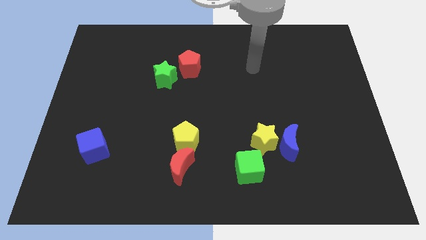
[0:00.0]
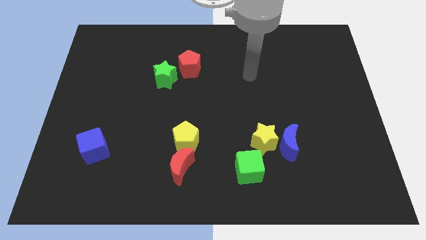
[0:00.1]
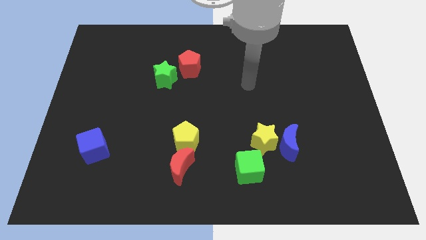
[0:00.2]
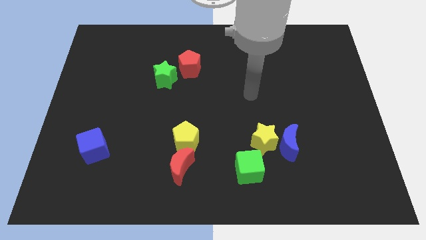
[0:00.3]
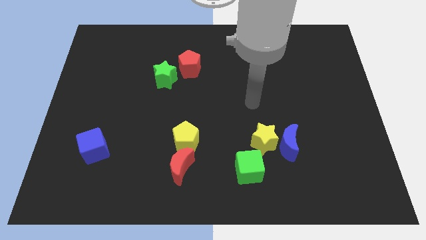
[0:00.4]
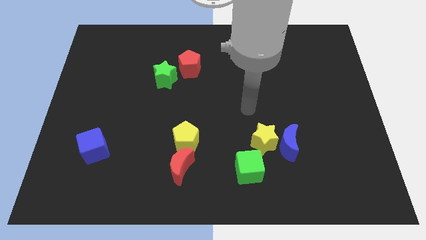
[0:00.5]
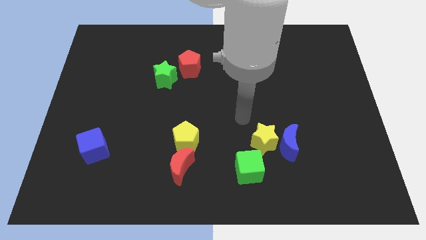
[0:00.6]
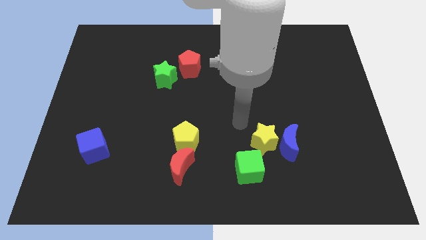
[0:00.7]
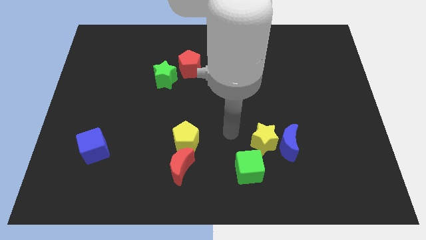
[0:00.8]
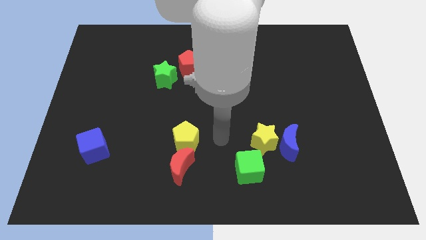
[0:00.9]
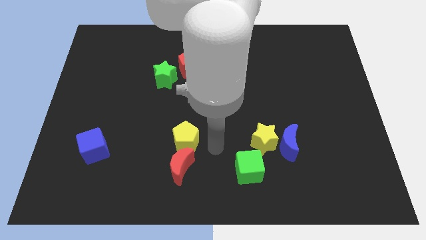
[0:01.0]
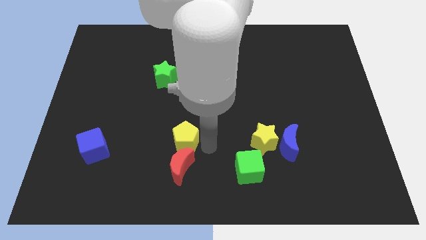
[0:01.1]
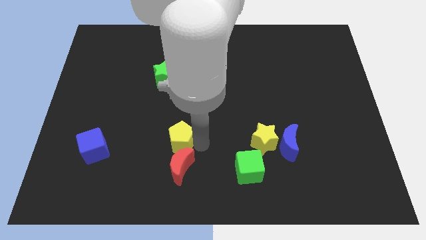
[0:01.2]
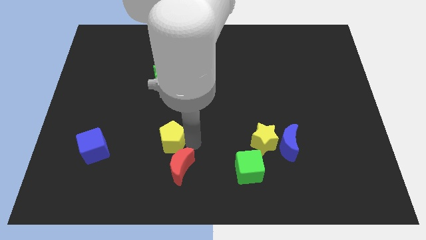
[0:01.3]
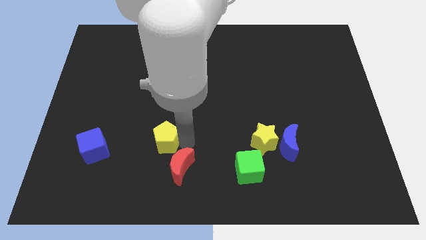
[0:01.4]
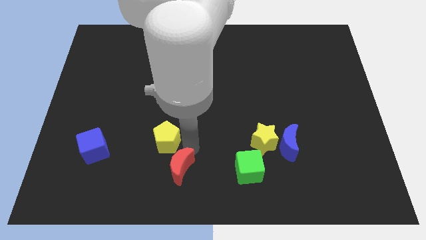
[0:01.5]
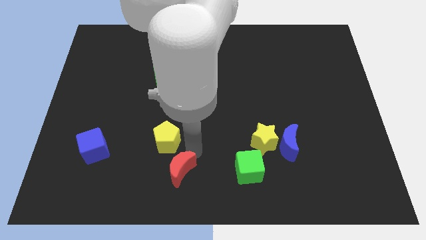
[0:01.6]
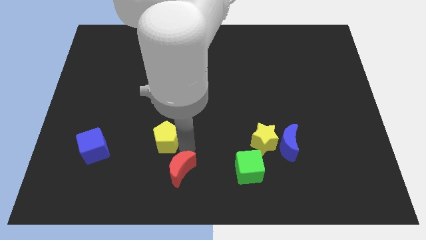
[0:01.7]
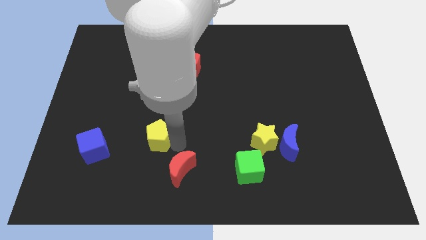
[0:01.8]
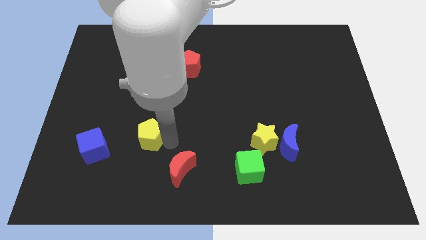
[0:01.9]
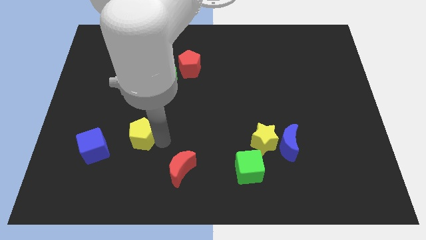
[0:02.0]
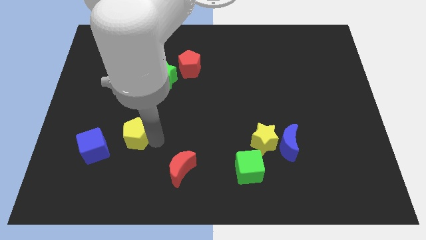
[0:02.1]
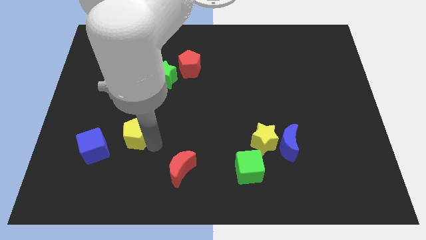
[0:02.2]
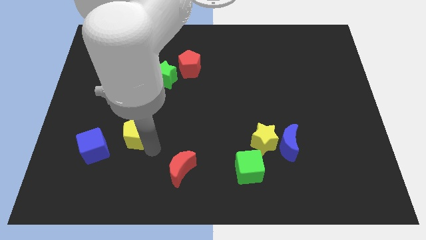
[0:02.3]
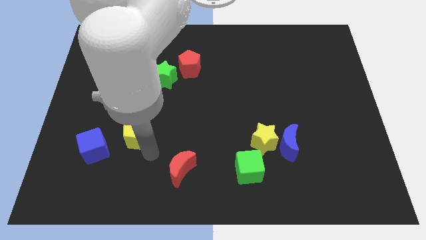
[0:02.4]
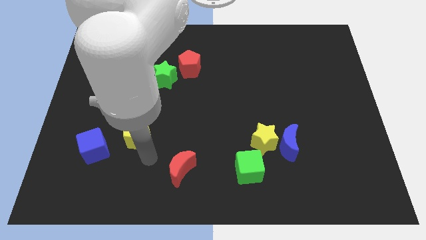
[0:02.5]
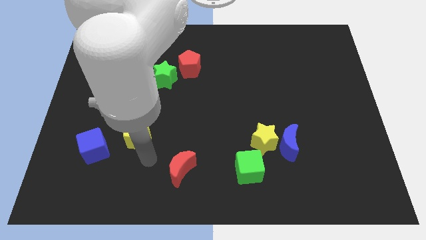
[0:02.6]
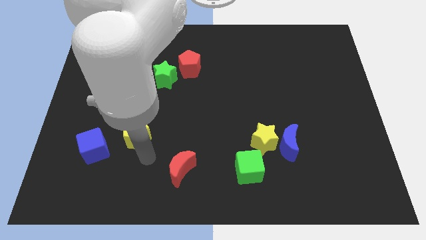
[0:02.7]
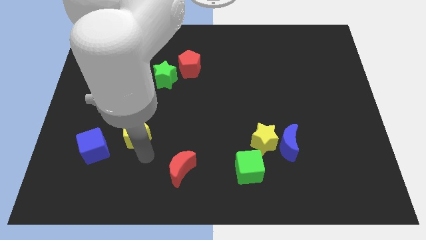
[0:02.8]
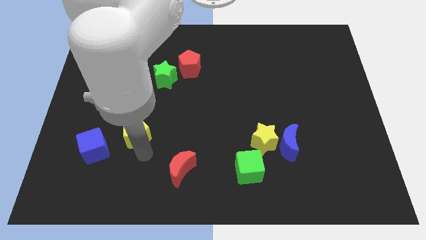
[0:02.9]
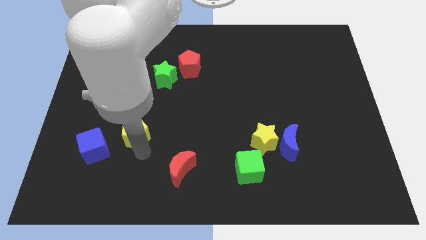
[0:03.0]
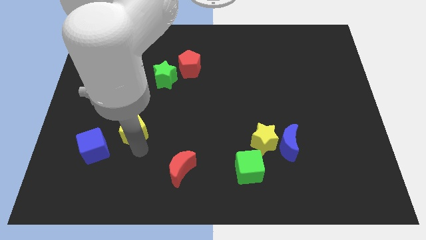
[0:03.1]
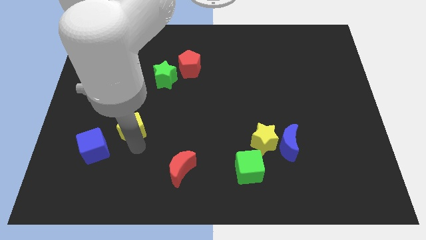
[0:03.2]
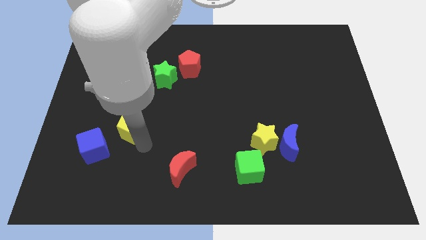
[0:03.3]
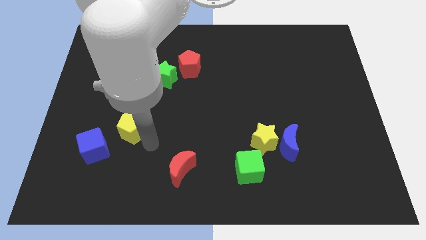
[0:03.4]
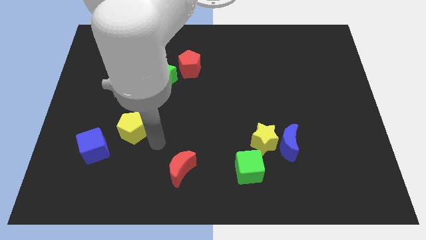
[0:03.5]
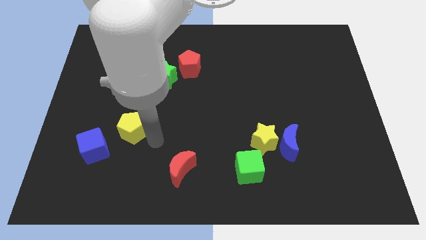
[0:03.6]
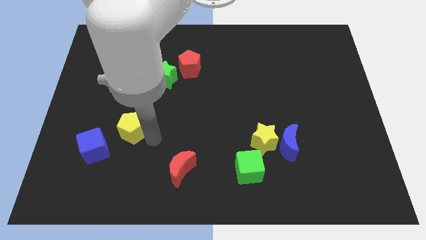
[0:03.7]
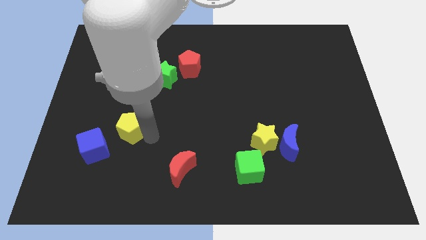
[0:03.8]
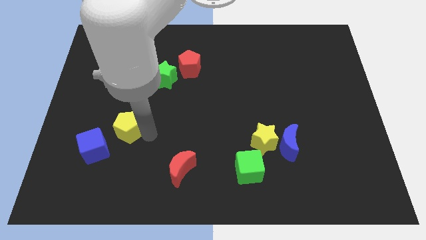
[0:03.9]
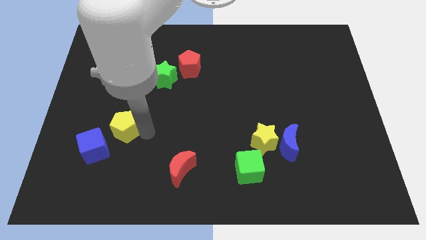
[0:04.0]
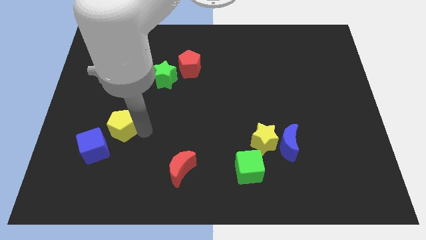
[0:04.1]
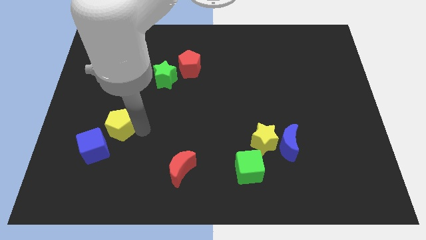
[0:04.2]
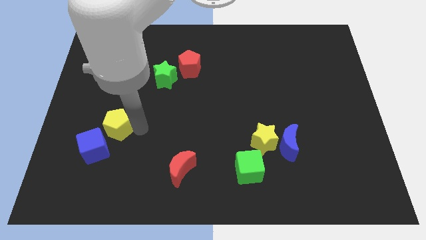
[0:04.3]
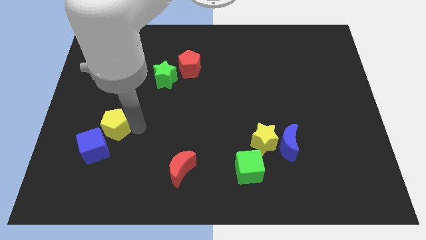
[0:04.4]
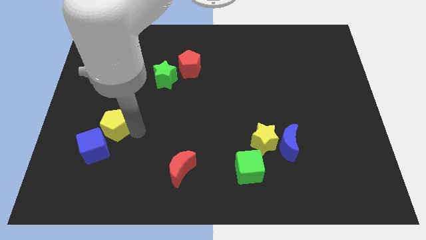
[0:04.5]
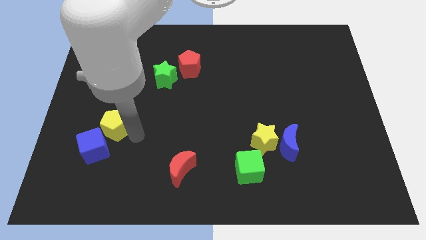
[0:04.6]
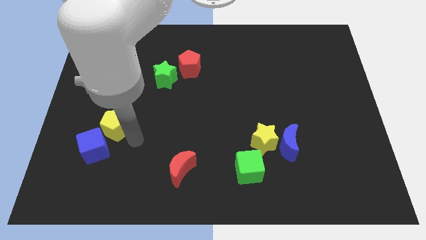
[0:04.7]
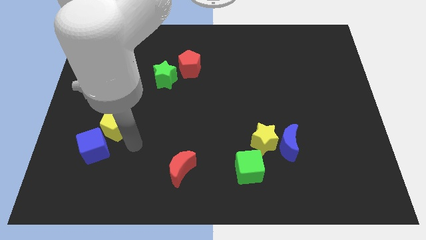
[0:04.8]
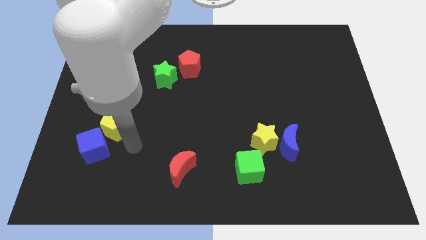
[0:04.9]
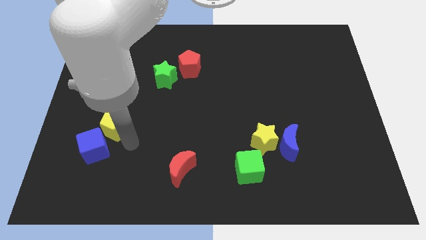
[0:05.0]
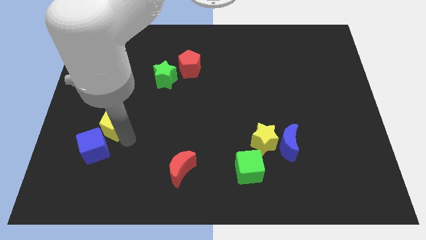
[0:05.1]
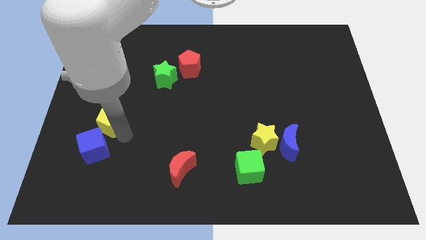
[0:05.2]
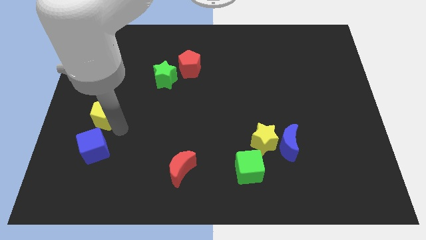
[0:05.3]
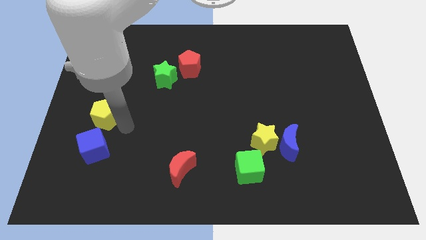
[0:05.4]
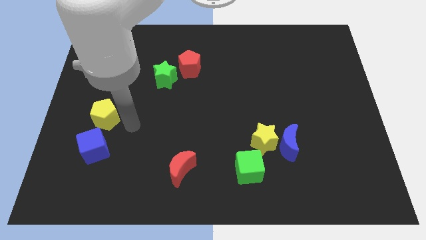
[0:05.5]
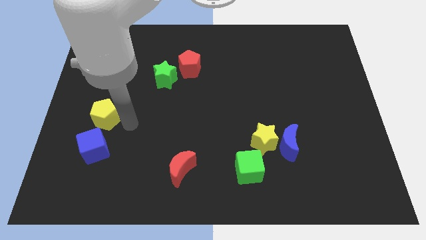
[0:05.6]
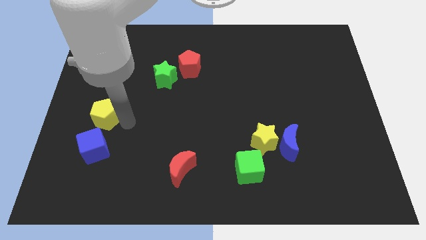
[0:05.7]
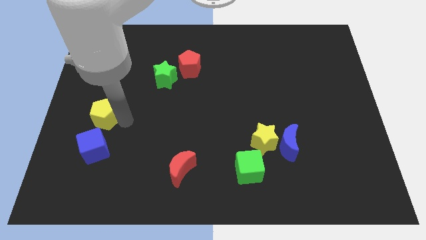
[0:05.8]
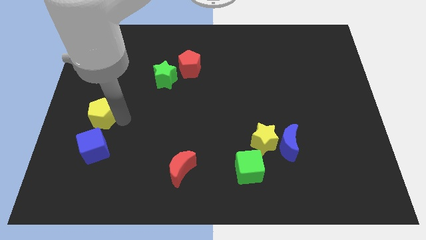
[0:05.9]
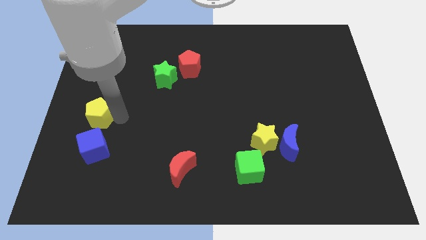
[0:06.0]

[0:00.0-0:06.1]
push the yellow pentagon to the left side of the board

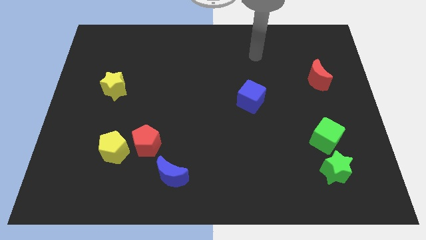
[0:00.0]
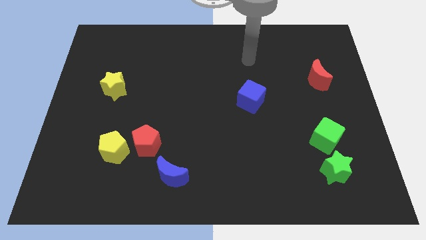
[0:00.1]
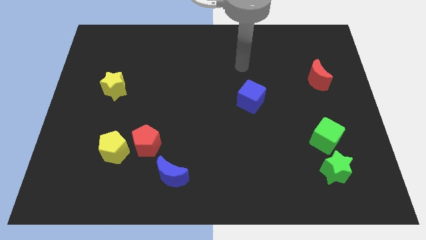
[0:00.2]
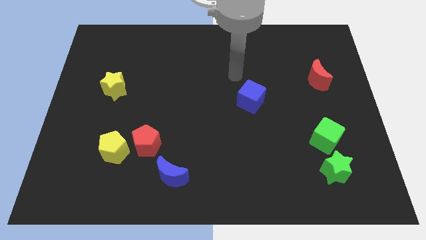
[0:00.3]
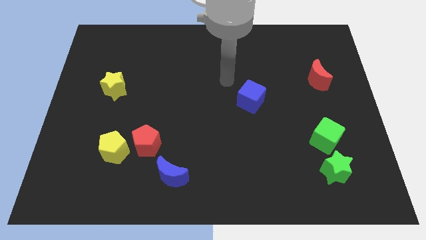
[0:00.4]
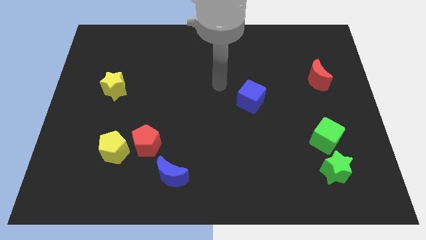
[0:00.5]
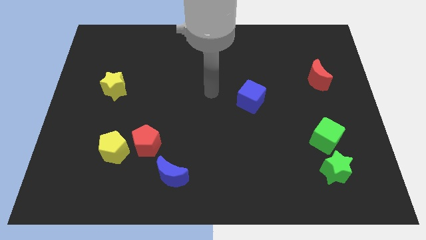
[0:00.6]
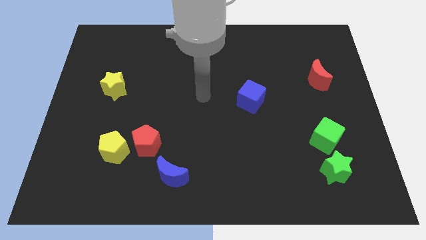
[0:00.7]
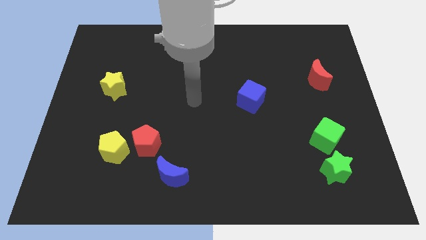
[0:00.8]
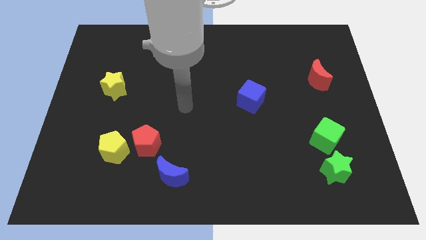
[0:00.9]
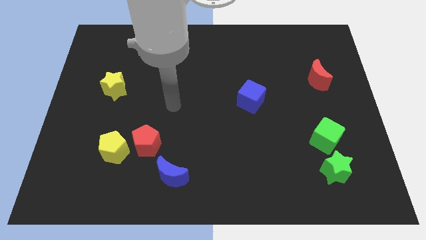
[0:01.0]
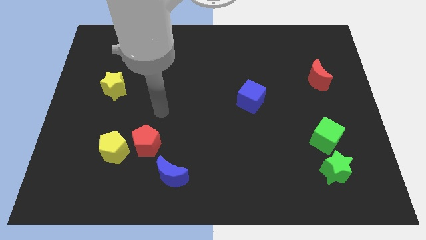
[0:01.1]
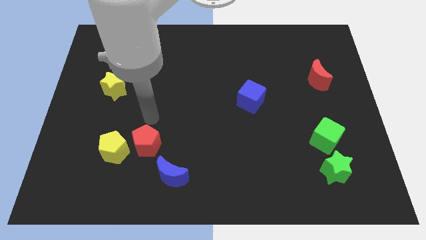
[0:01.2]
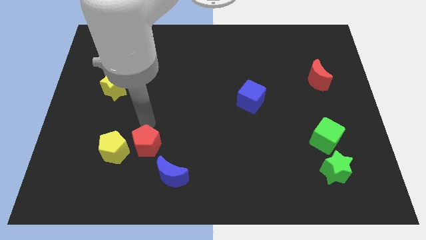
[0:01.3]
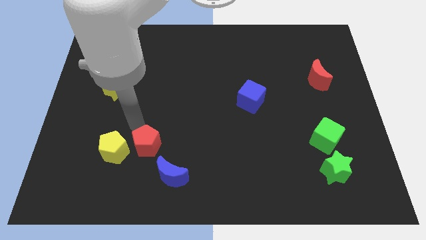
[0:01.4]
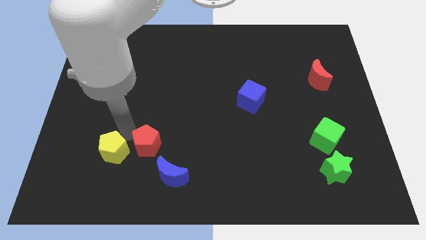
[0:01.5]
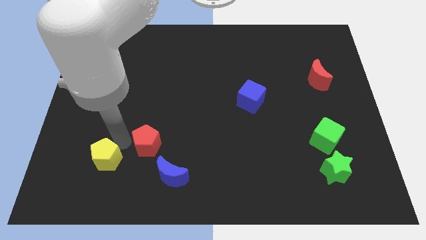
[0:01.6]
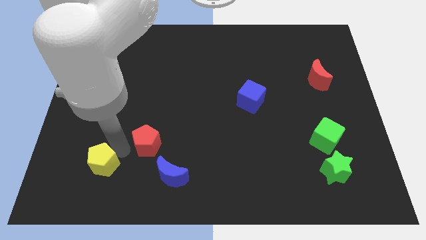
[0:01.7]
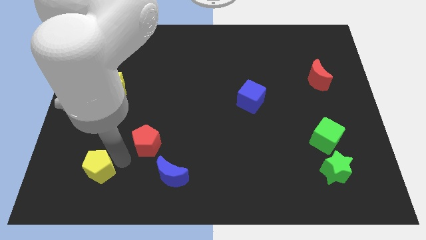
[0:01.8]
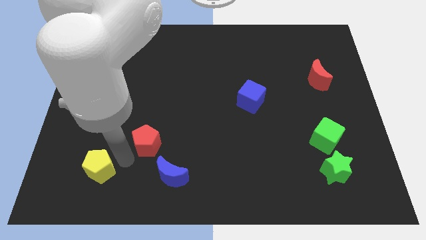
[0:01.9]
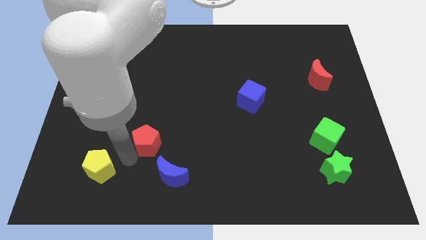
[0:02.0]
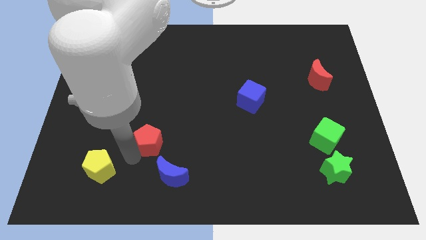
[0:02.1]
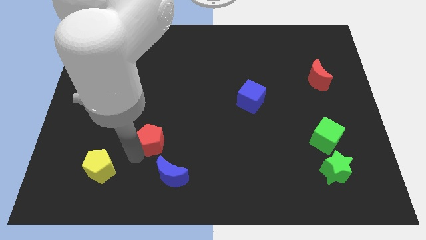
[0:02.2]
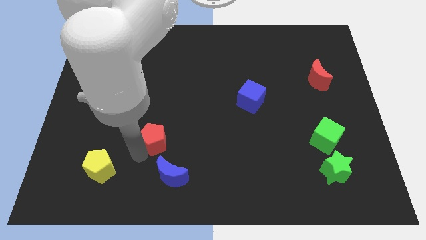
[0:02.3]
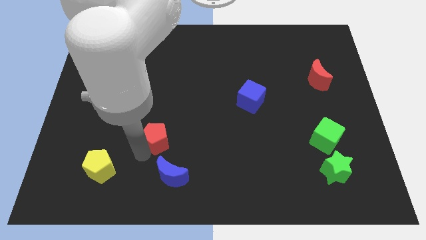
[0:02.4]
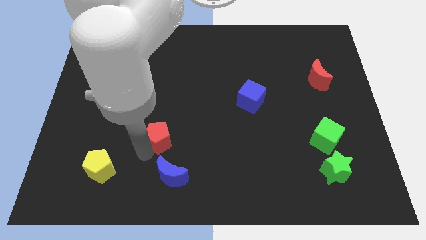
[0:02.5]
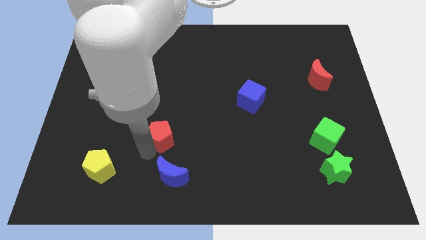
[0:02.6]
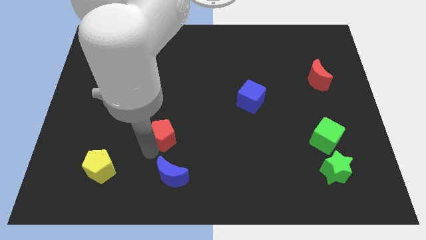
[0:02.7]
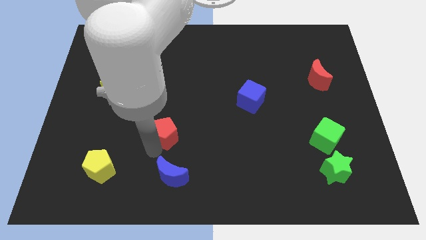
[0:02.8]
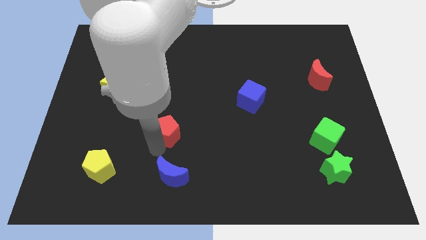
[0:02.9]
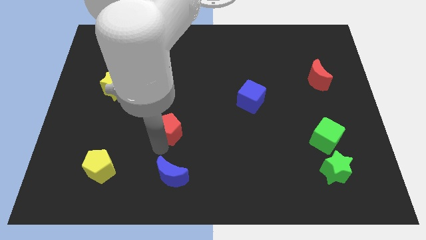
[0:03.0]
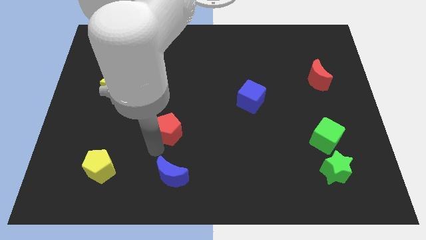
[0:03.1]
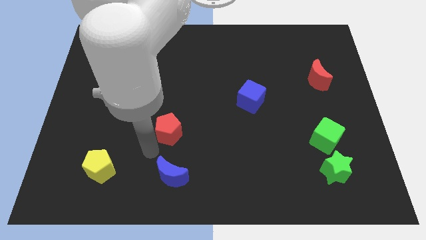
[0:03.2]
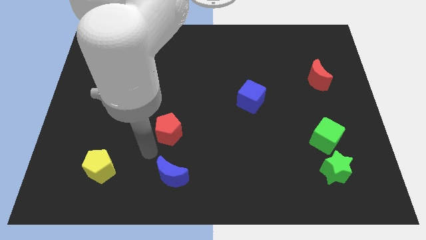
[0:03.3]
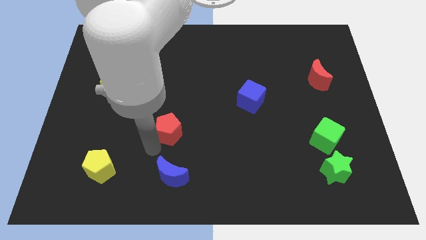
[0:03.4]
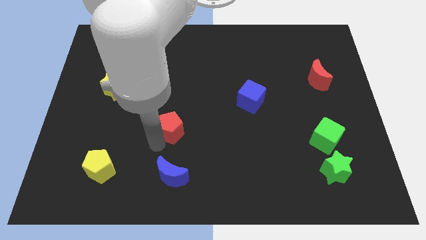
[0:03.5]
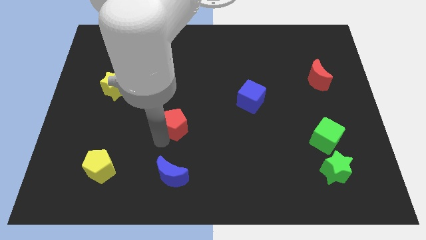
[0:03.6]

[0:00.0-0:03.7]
push the red pentagon to the center
